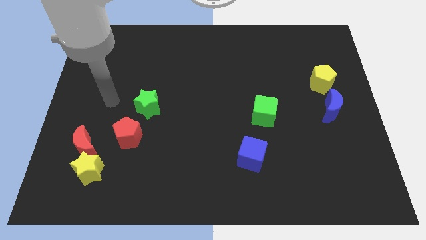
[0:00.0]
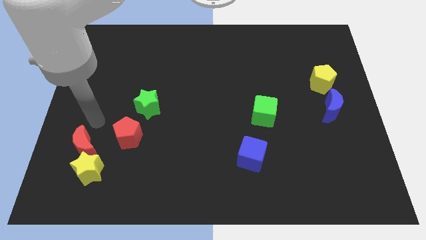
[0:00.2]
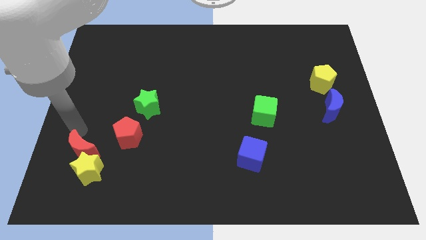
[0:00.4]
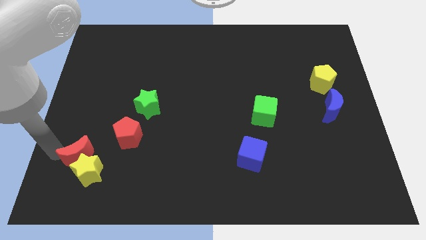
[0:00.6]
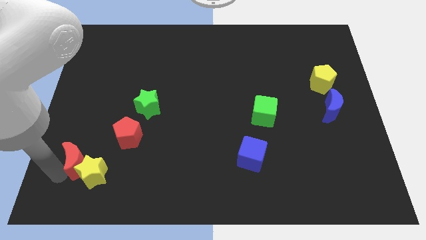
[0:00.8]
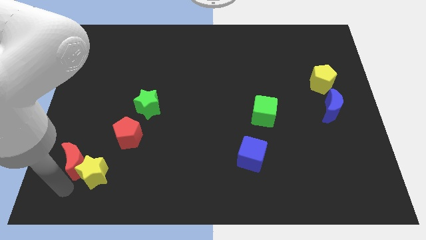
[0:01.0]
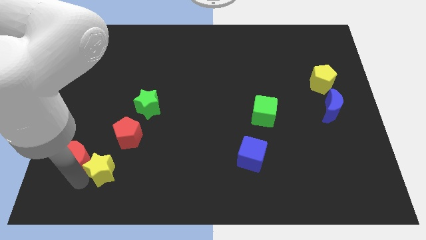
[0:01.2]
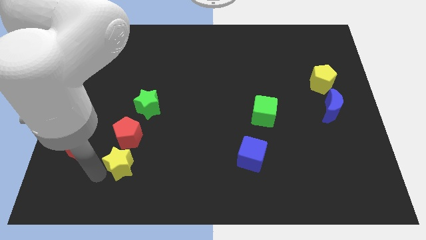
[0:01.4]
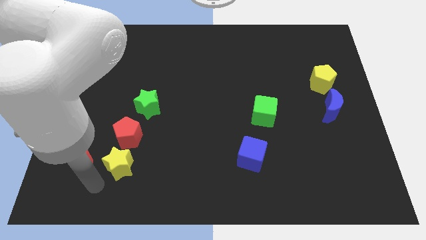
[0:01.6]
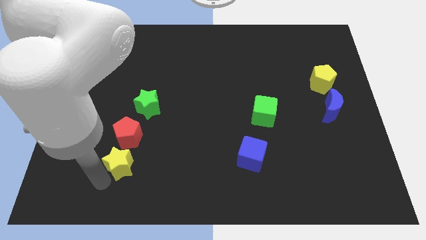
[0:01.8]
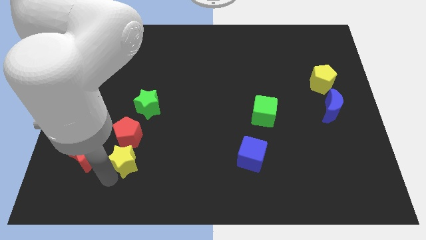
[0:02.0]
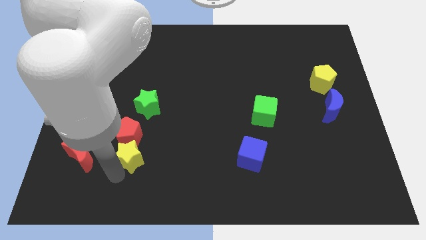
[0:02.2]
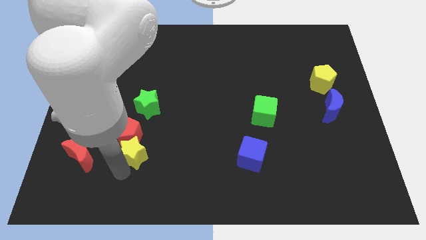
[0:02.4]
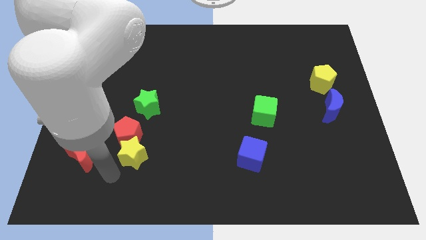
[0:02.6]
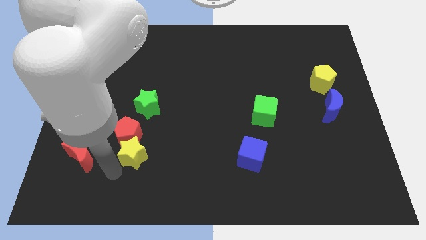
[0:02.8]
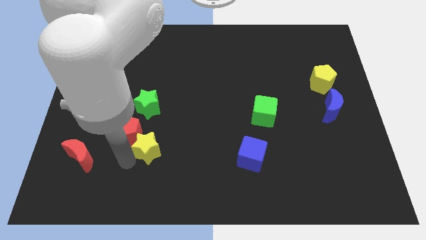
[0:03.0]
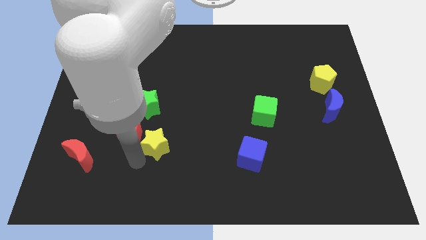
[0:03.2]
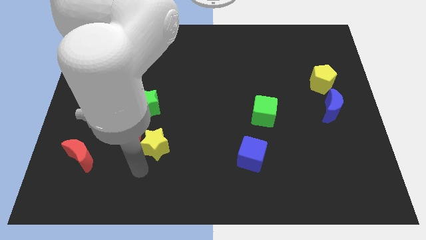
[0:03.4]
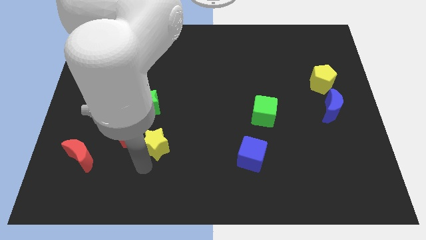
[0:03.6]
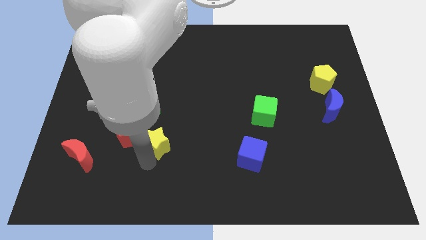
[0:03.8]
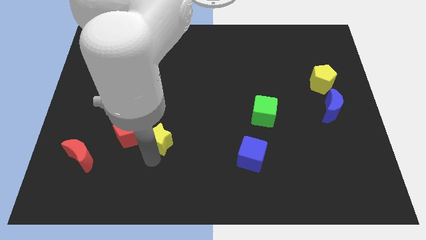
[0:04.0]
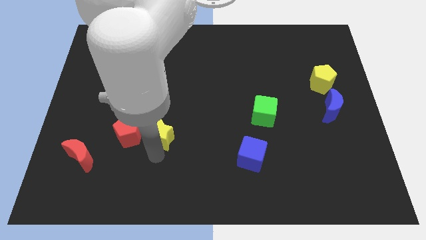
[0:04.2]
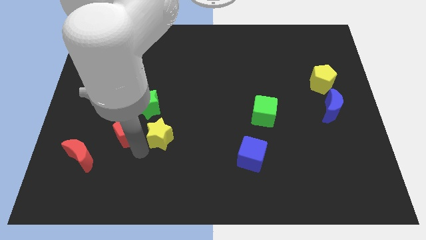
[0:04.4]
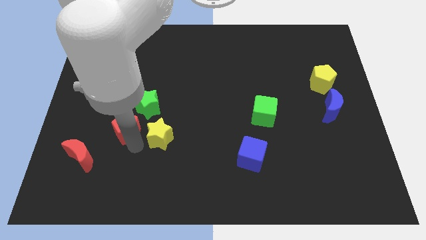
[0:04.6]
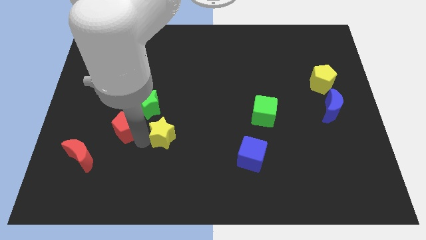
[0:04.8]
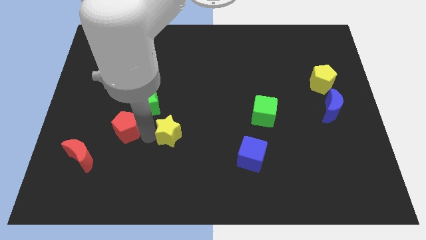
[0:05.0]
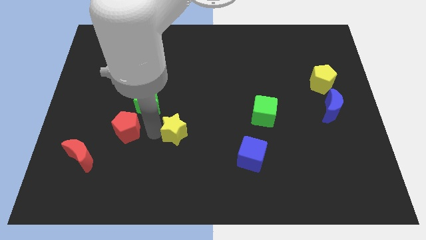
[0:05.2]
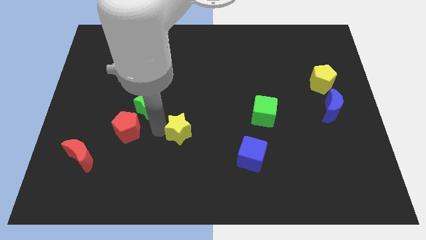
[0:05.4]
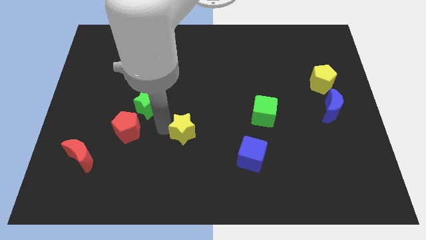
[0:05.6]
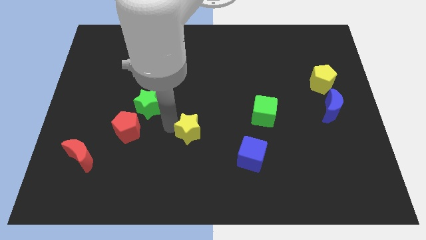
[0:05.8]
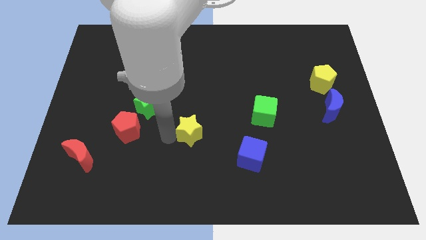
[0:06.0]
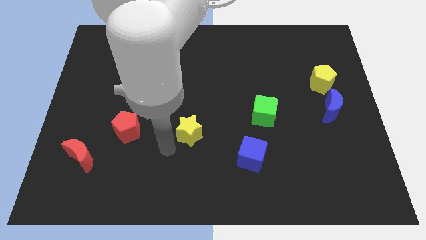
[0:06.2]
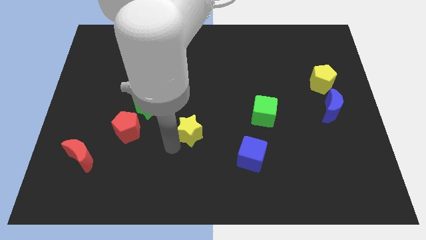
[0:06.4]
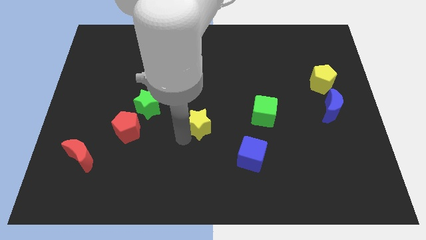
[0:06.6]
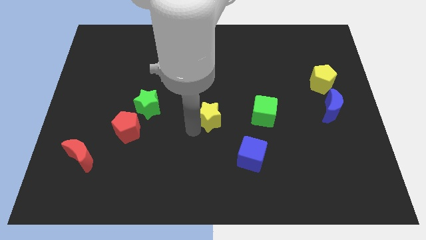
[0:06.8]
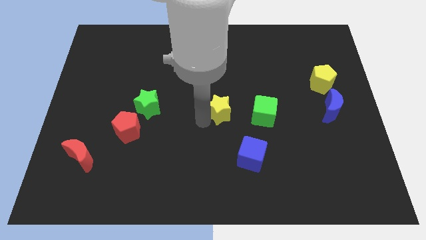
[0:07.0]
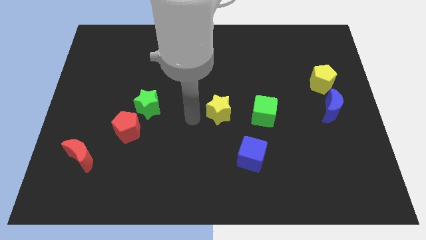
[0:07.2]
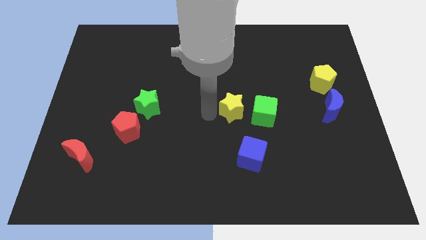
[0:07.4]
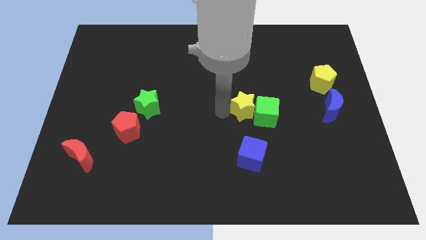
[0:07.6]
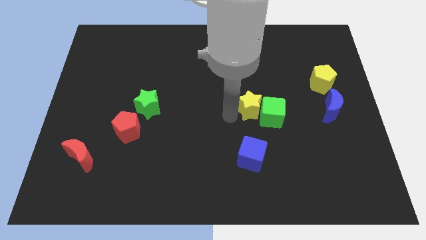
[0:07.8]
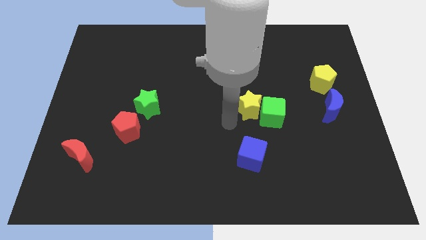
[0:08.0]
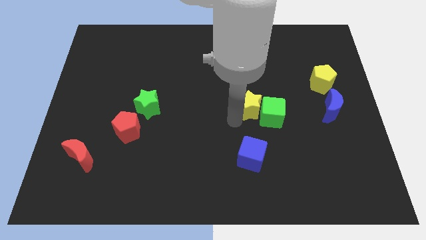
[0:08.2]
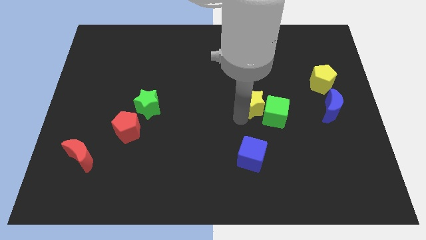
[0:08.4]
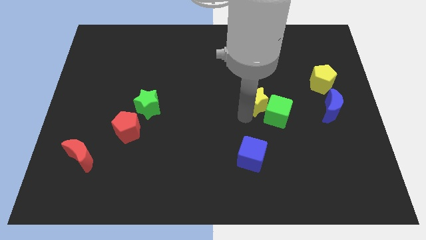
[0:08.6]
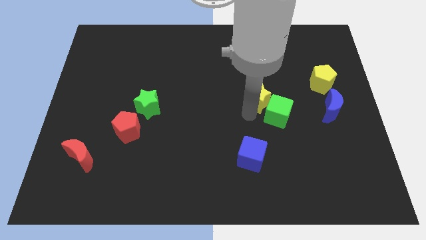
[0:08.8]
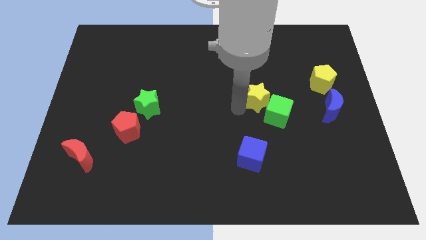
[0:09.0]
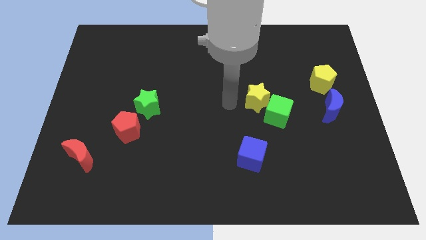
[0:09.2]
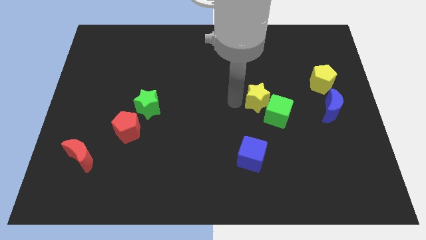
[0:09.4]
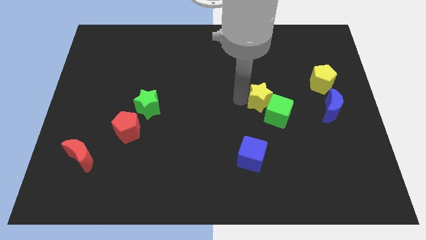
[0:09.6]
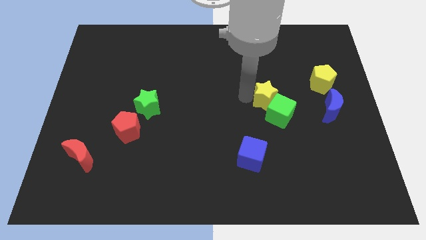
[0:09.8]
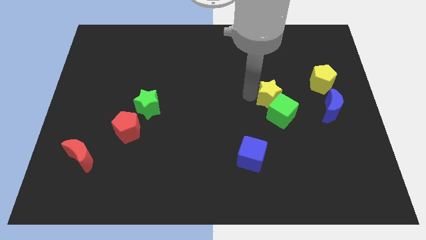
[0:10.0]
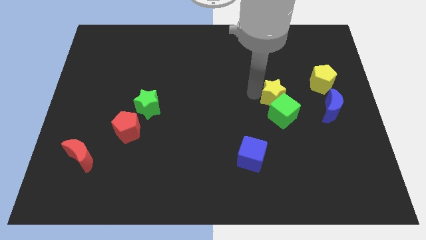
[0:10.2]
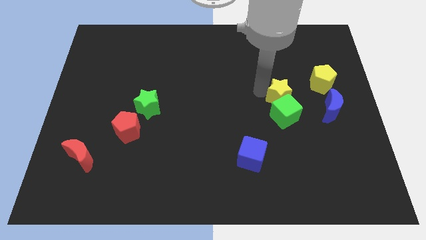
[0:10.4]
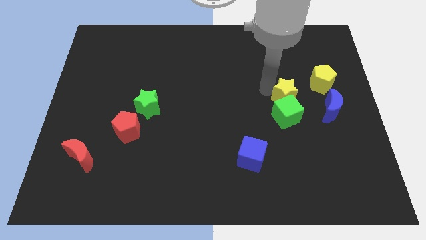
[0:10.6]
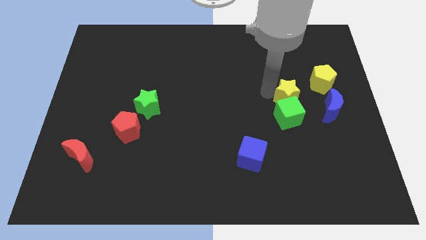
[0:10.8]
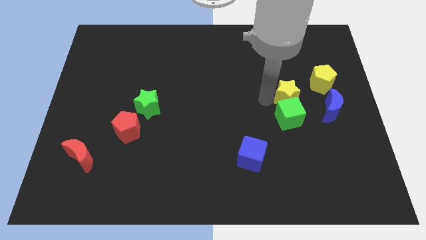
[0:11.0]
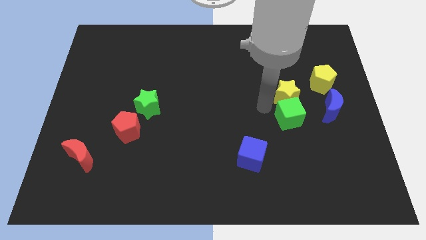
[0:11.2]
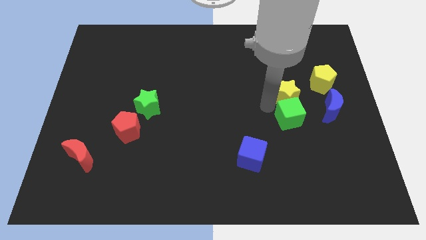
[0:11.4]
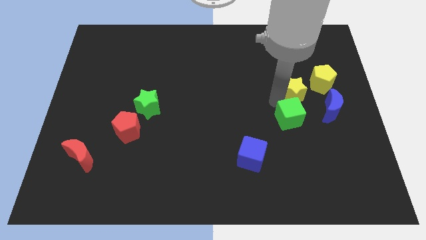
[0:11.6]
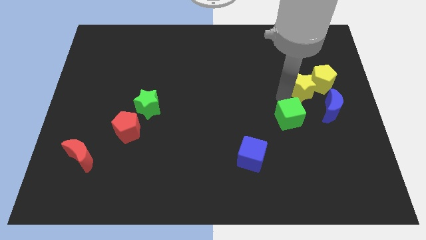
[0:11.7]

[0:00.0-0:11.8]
push the yellow star towards the yellow pentagon

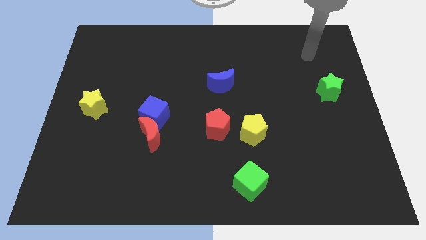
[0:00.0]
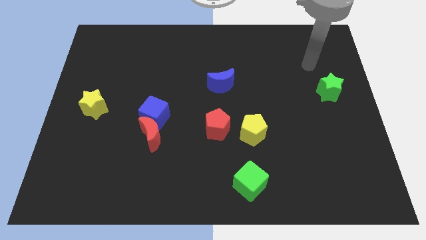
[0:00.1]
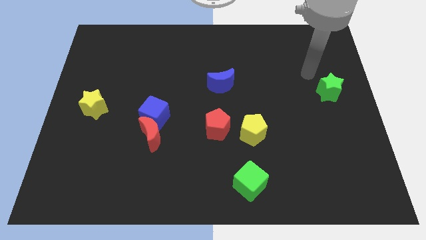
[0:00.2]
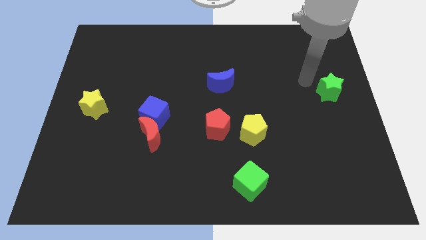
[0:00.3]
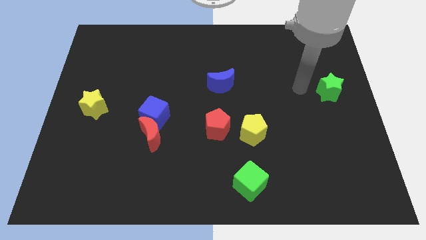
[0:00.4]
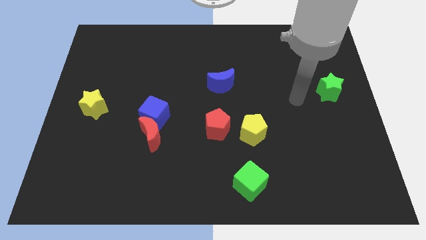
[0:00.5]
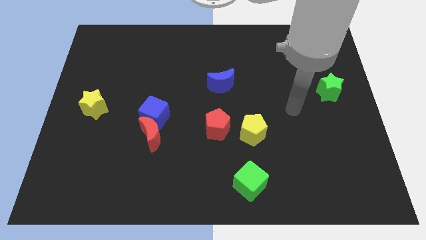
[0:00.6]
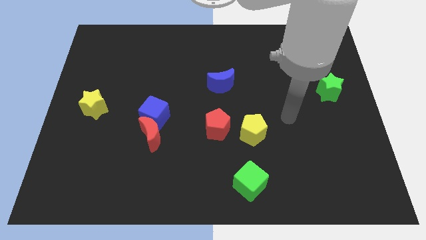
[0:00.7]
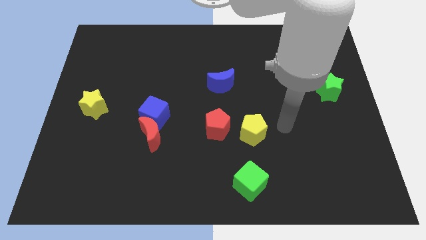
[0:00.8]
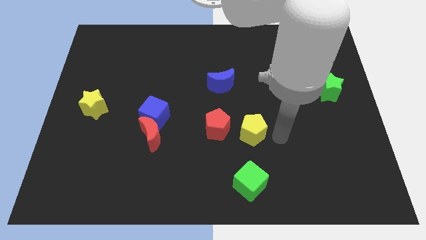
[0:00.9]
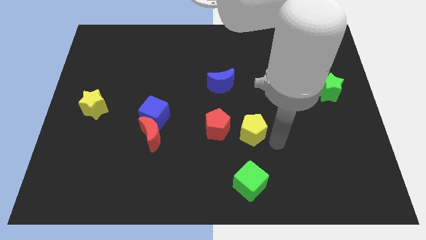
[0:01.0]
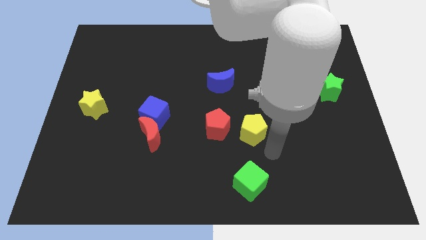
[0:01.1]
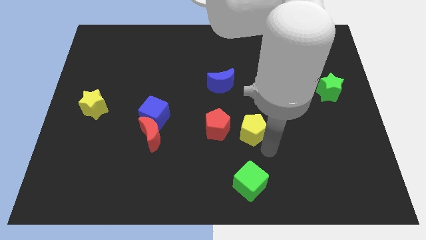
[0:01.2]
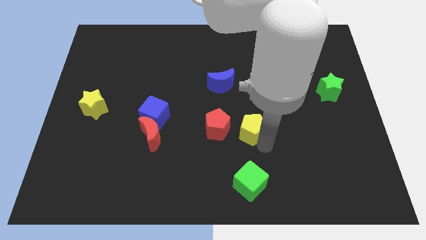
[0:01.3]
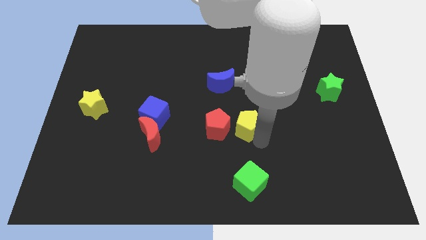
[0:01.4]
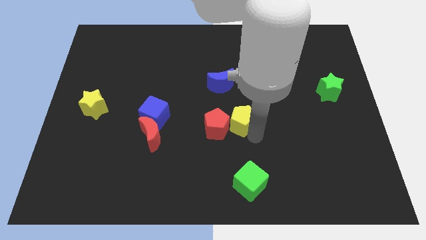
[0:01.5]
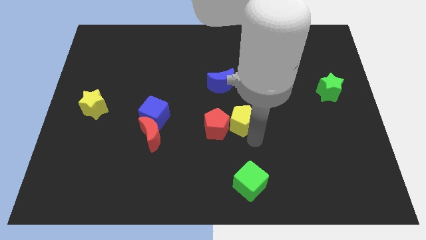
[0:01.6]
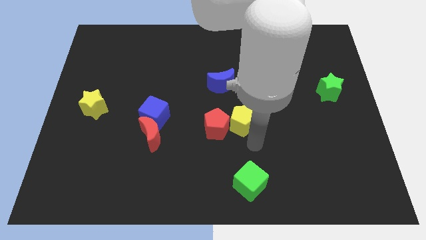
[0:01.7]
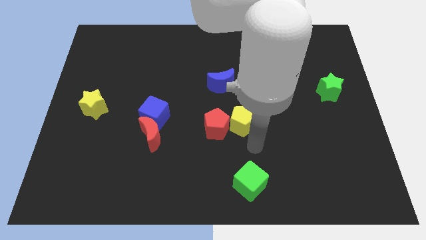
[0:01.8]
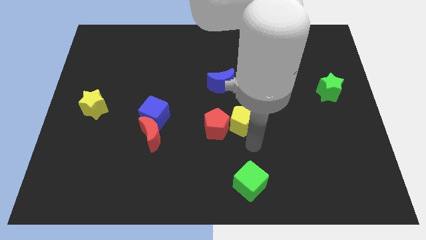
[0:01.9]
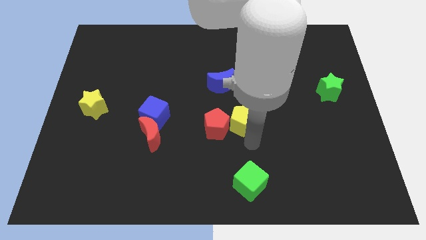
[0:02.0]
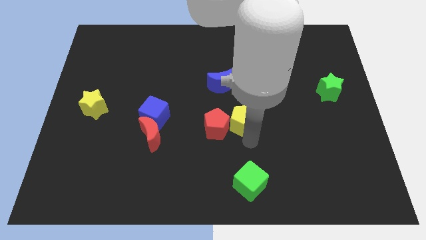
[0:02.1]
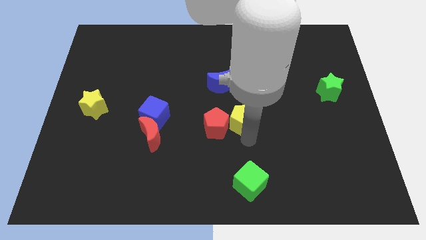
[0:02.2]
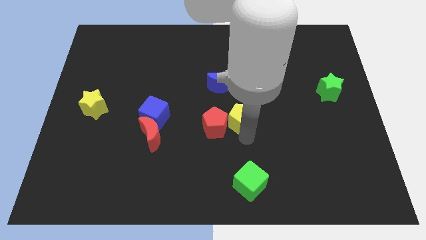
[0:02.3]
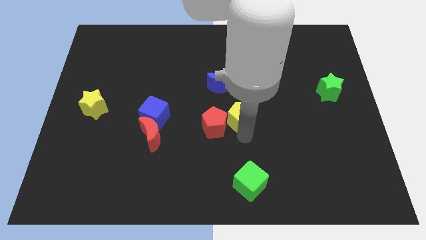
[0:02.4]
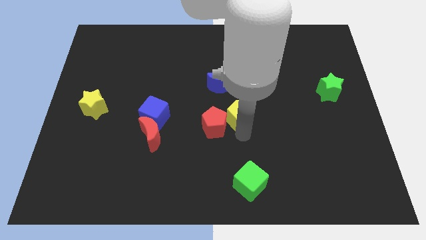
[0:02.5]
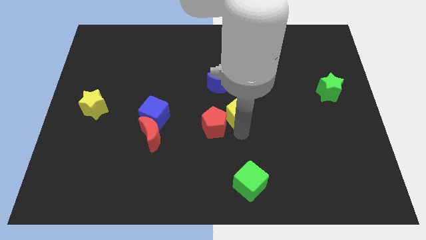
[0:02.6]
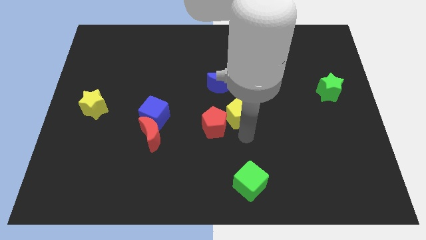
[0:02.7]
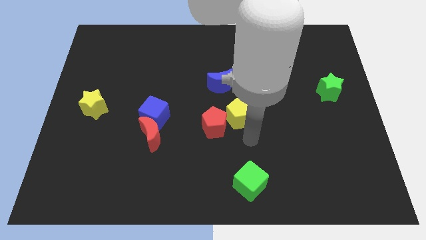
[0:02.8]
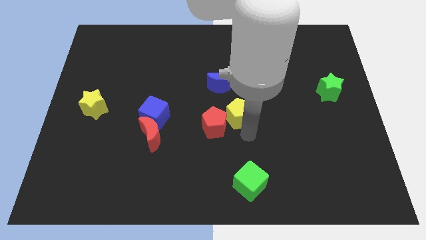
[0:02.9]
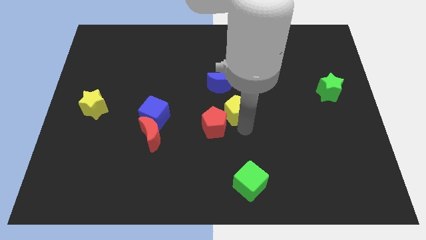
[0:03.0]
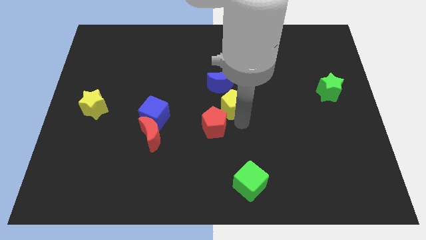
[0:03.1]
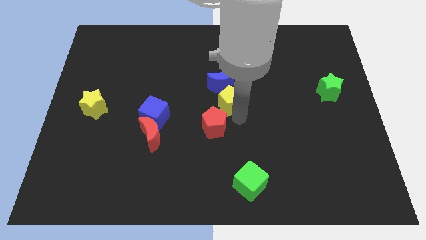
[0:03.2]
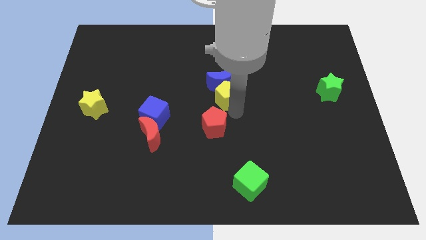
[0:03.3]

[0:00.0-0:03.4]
slide the yellow pentagon next to the blue moon
